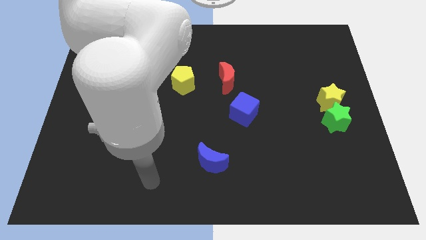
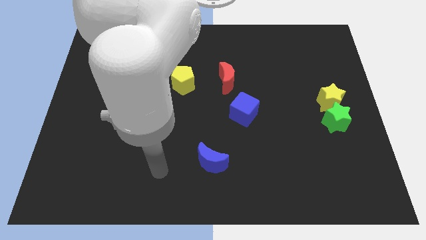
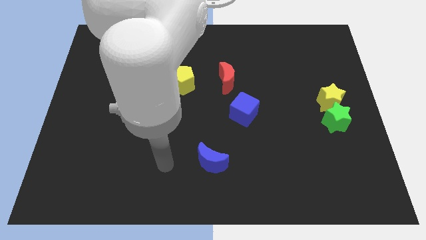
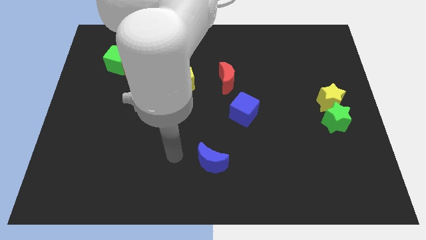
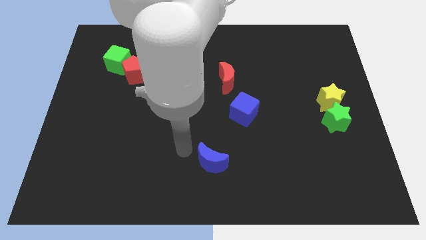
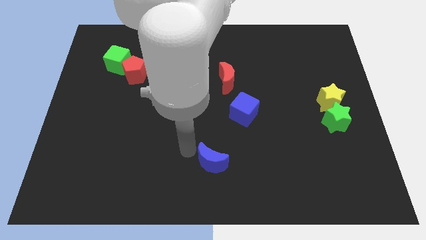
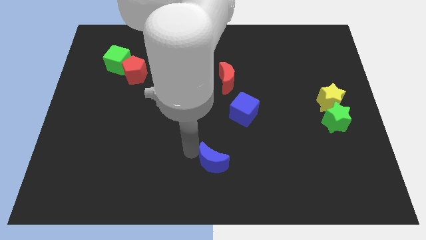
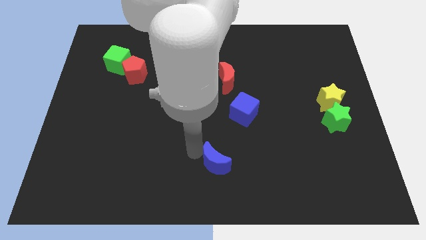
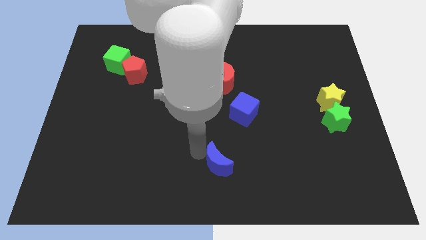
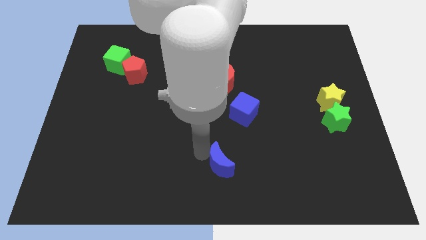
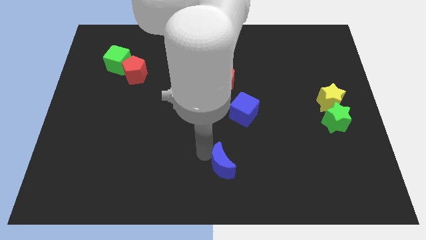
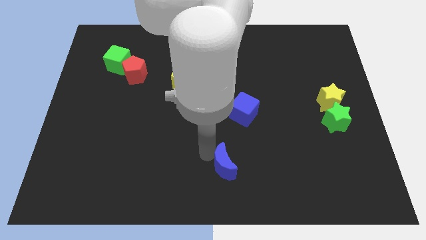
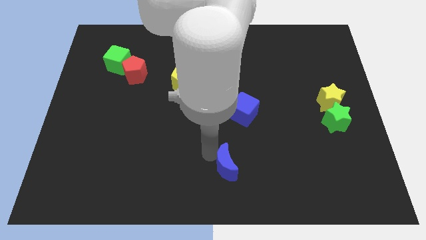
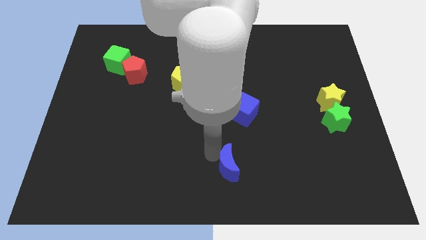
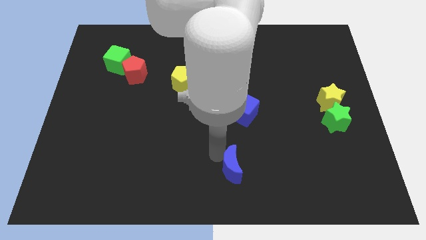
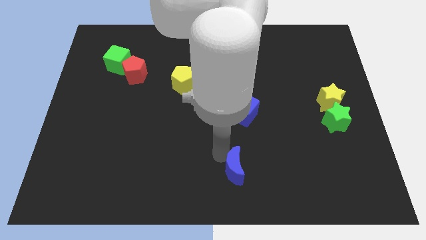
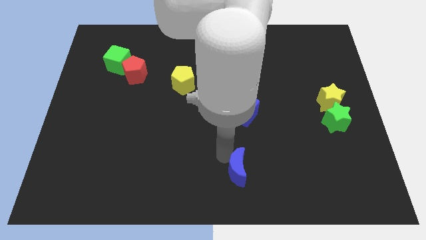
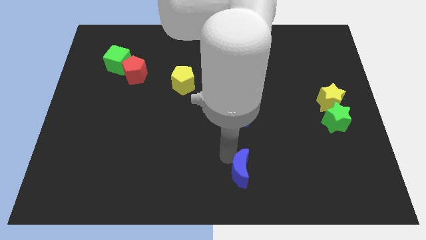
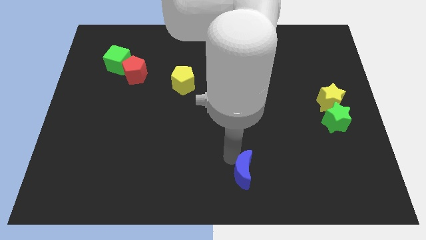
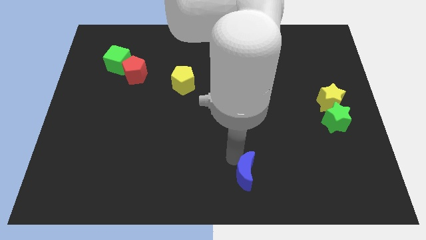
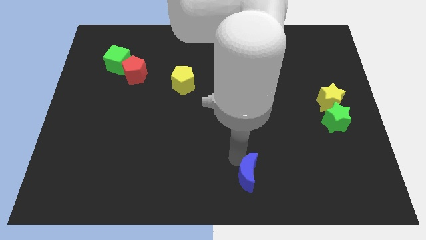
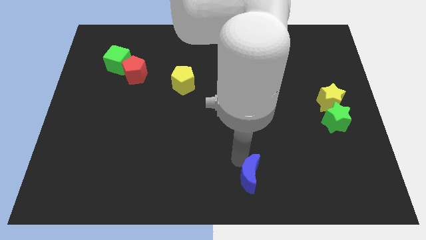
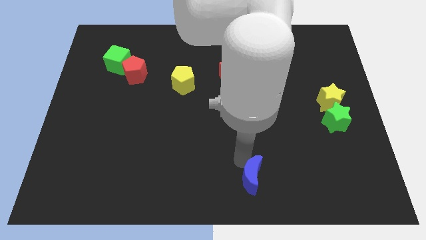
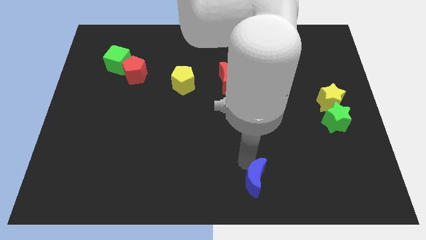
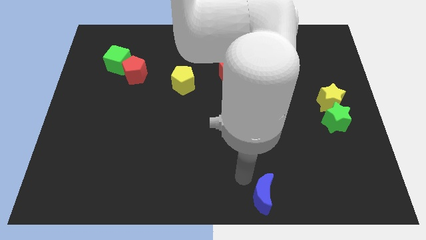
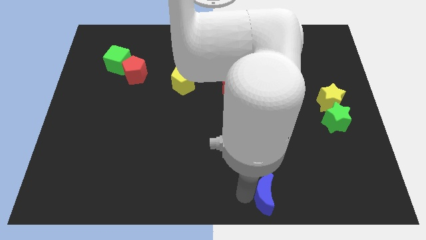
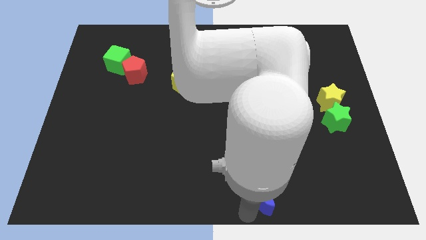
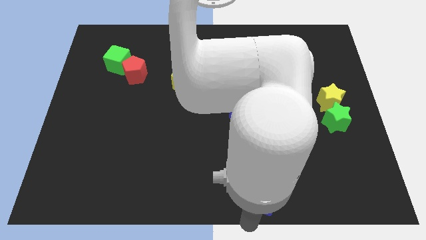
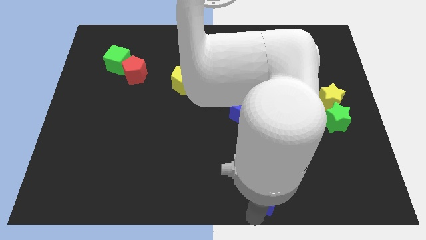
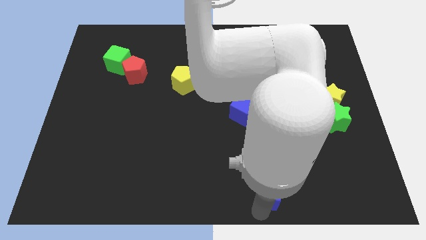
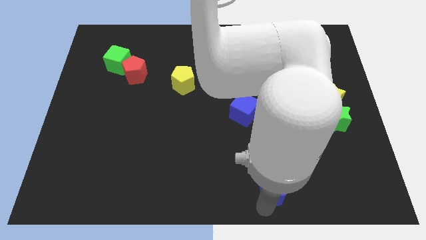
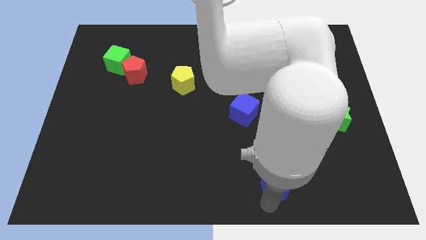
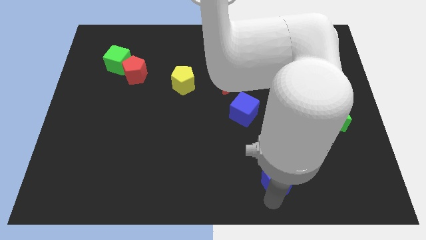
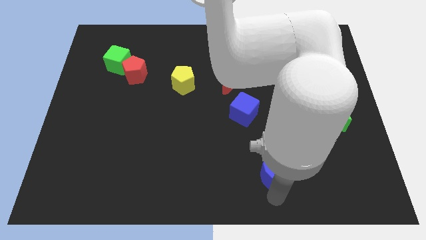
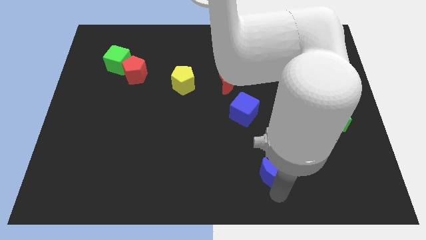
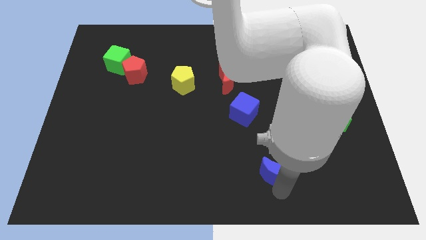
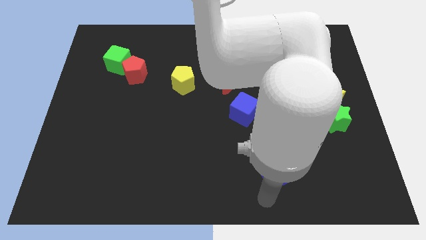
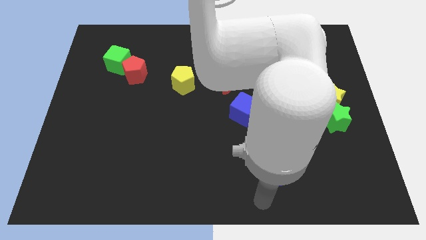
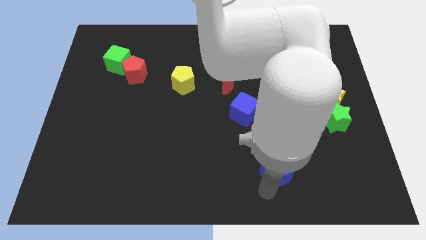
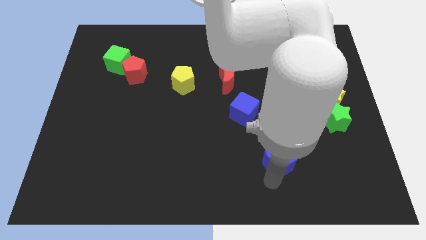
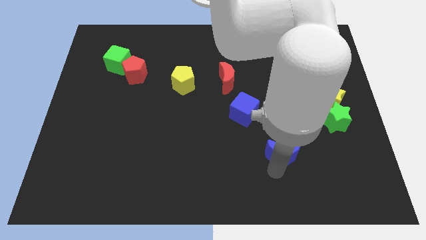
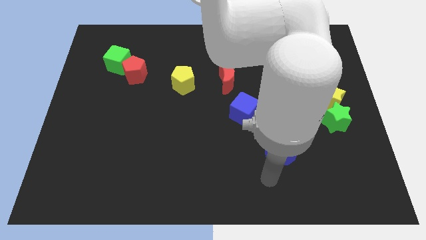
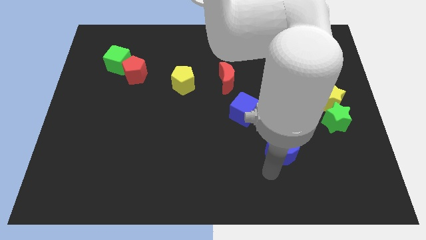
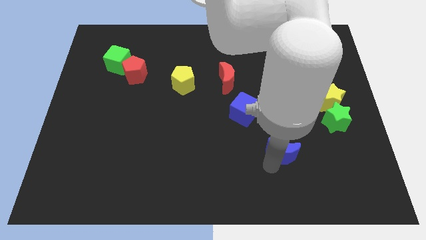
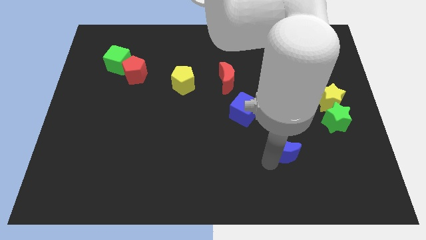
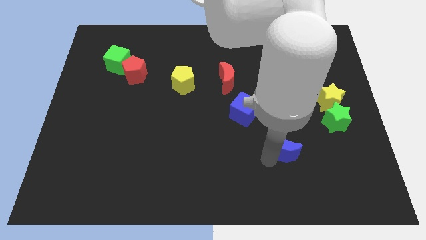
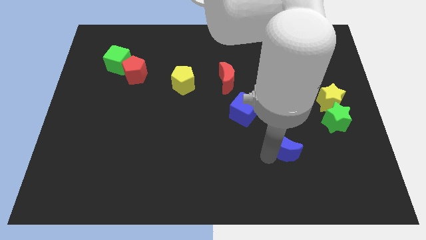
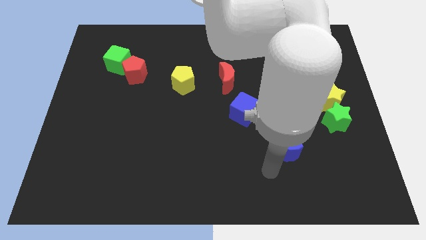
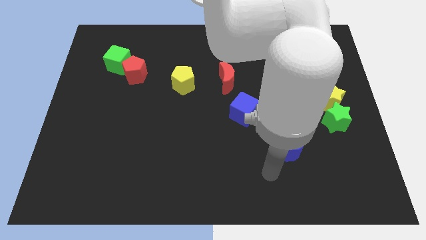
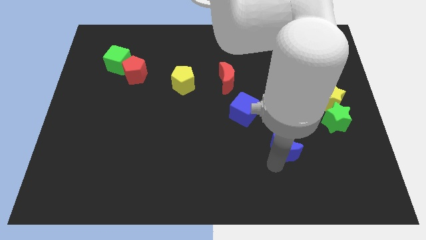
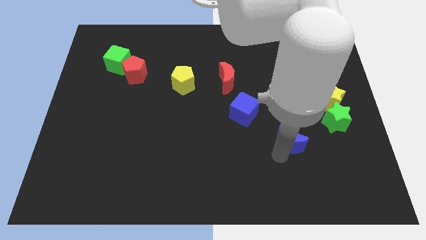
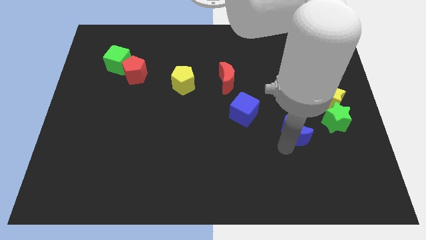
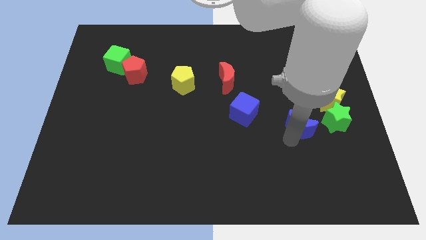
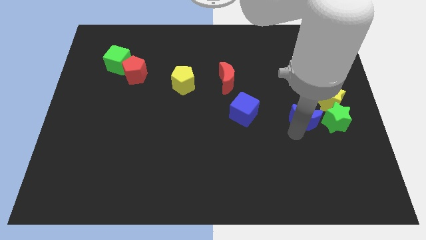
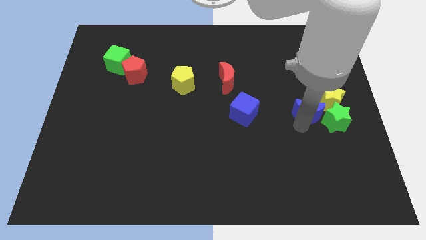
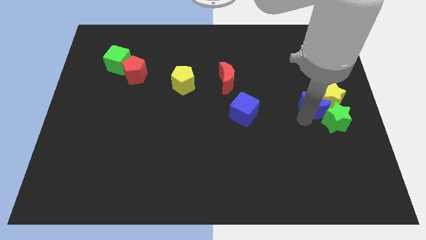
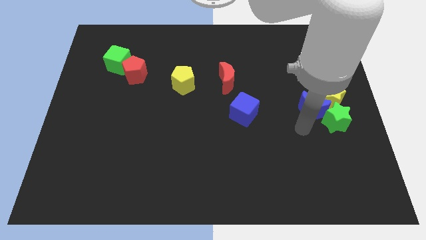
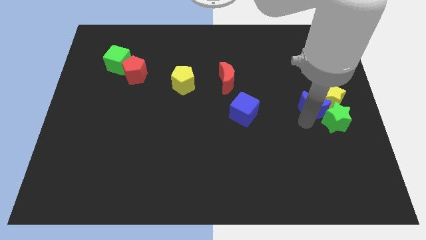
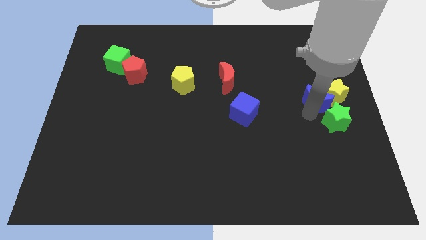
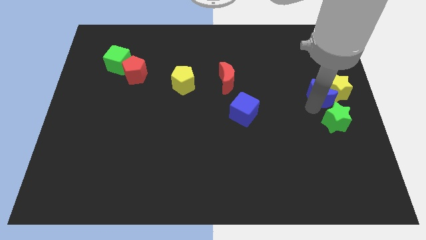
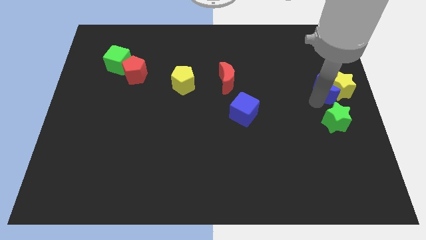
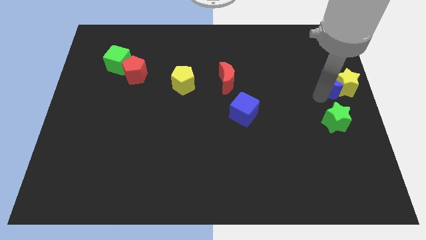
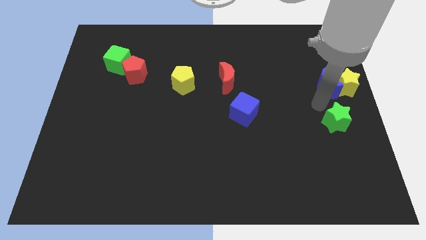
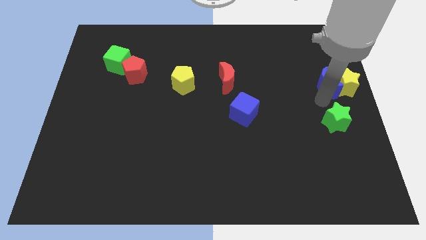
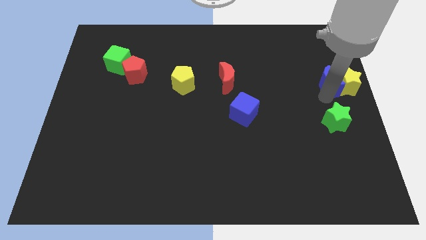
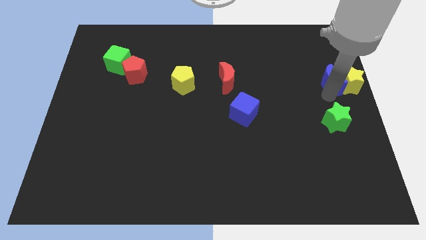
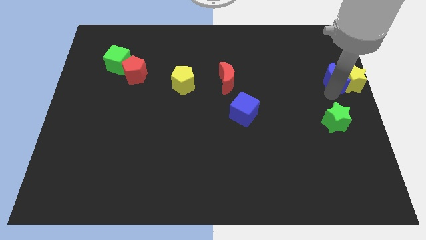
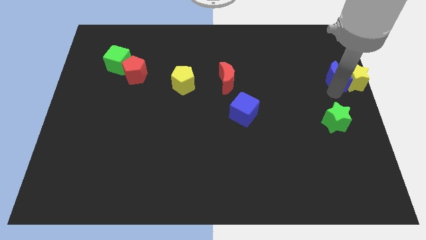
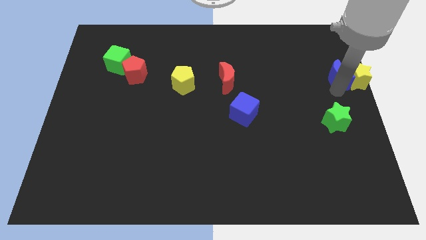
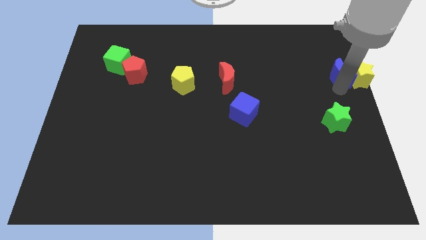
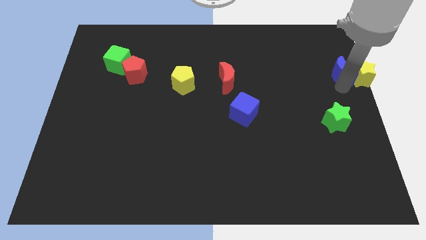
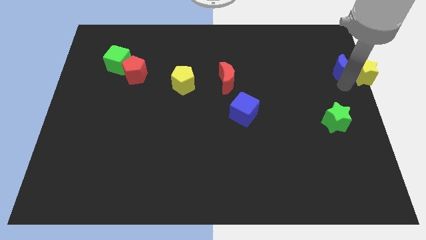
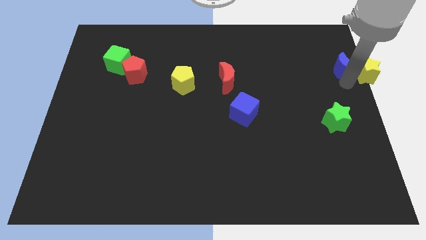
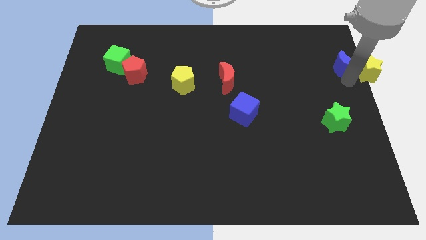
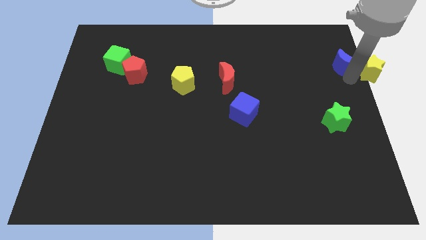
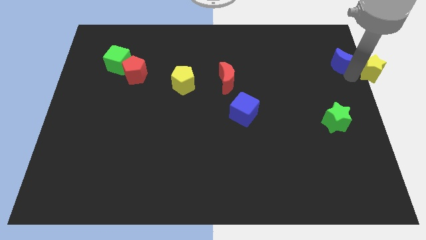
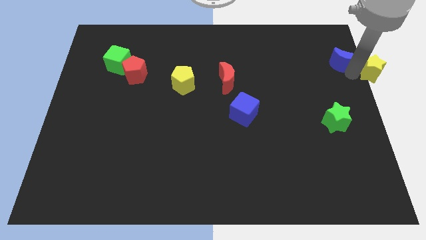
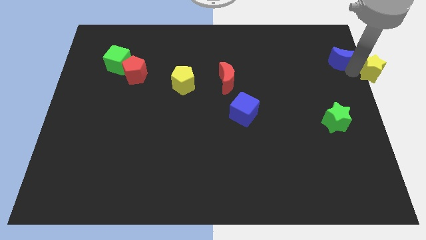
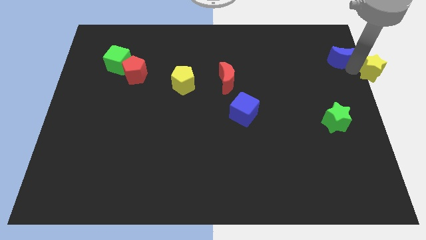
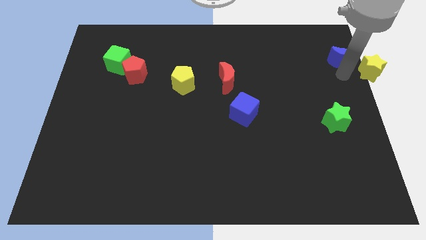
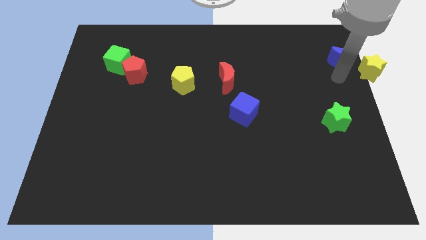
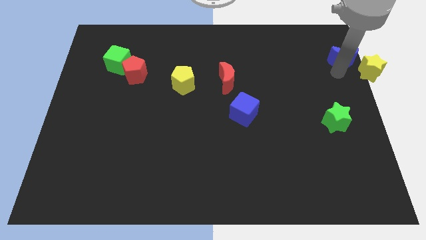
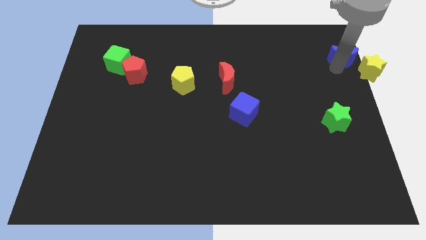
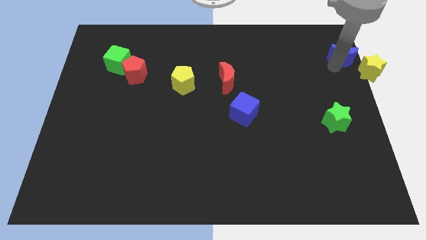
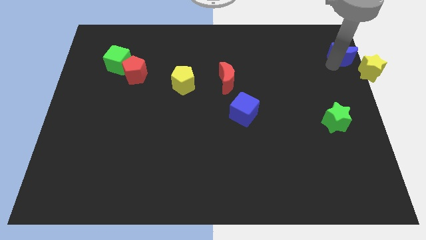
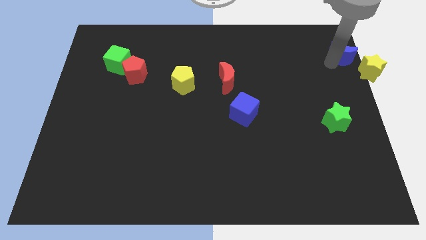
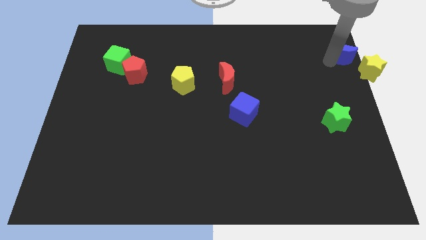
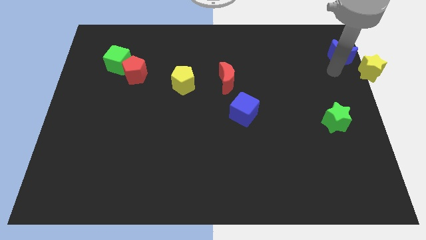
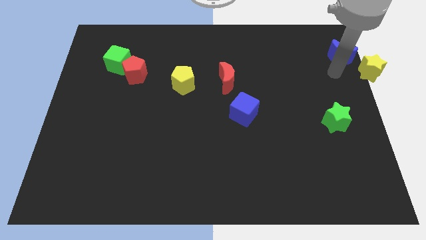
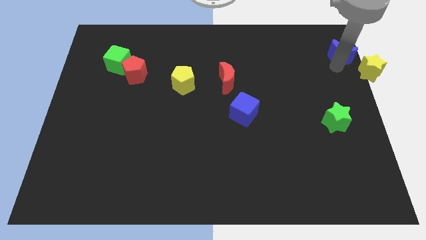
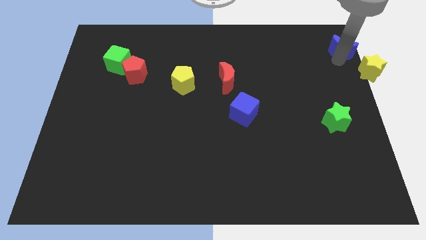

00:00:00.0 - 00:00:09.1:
put the blue moon to the top right of the board
